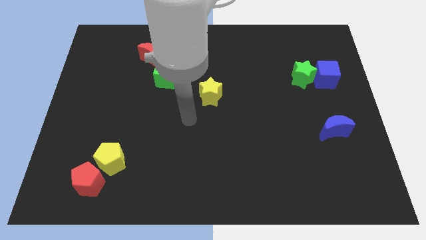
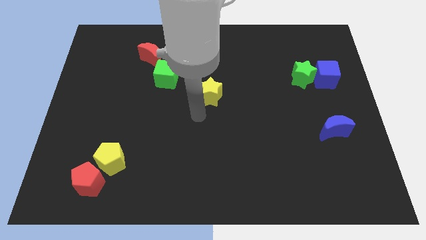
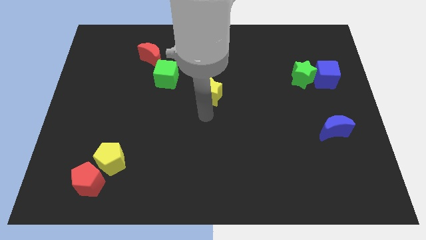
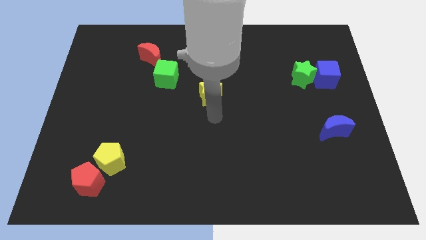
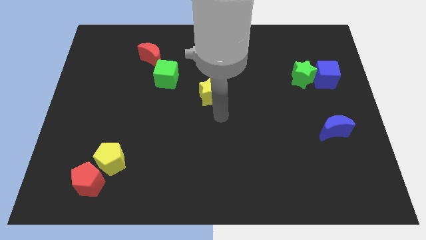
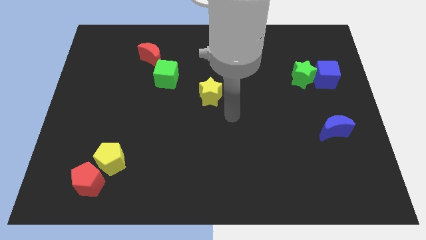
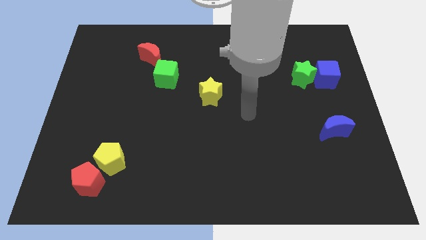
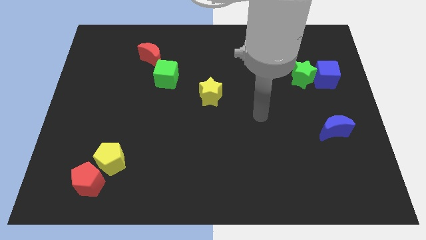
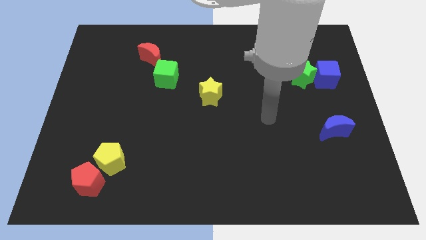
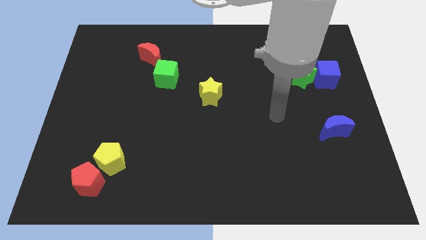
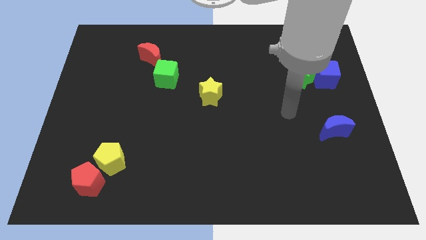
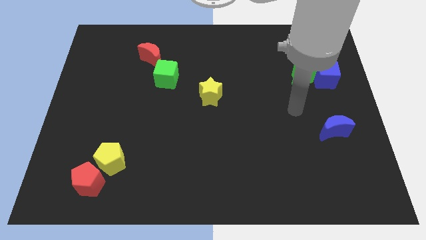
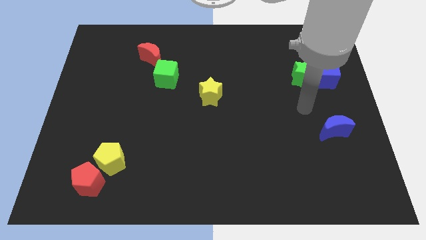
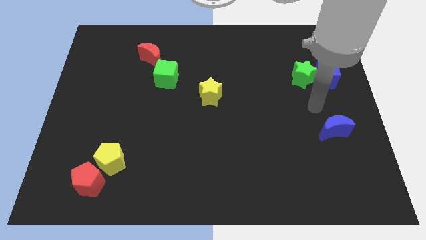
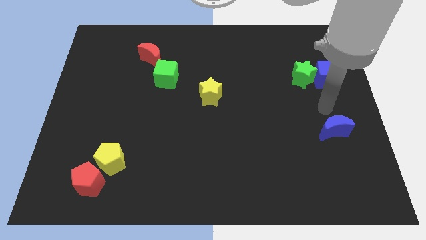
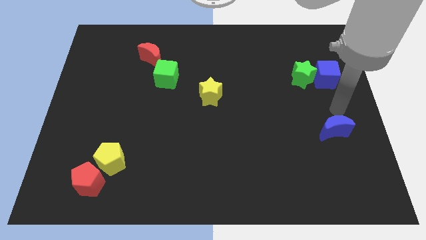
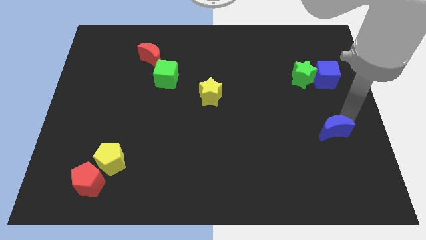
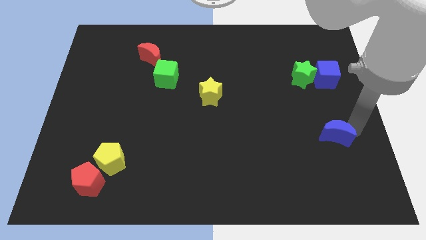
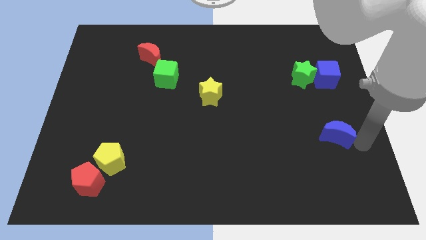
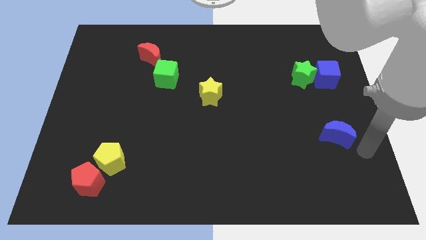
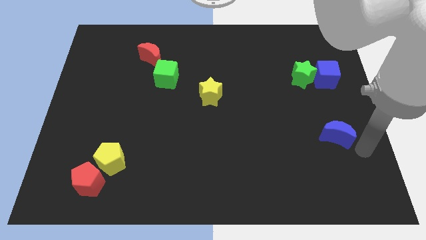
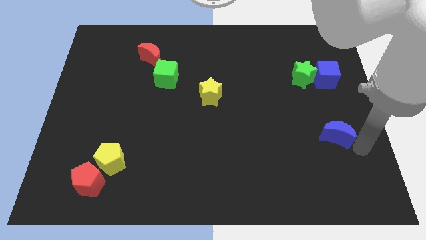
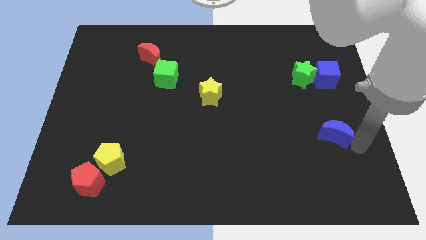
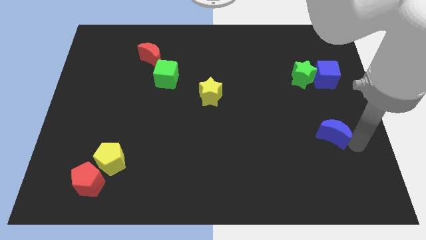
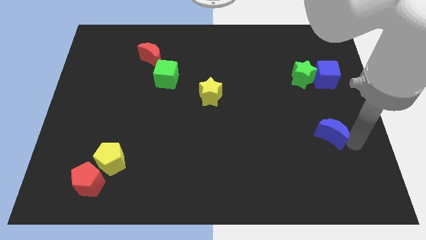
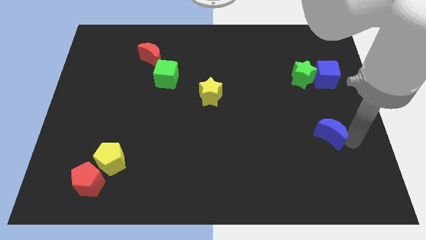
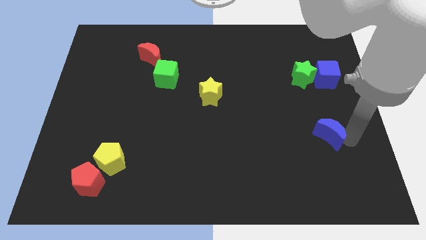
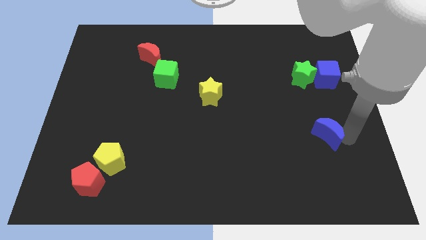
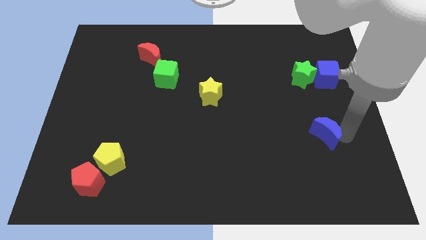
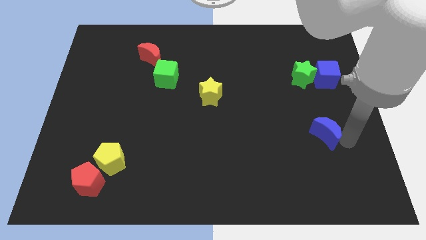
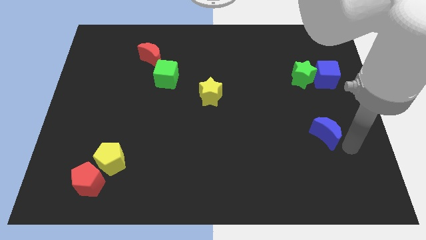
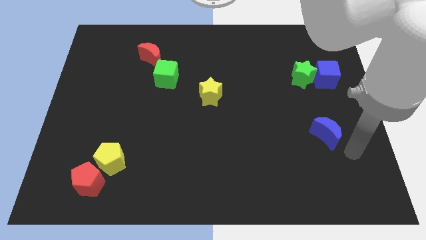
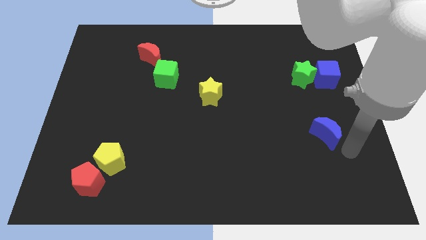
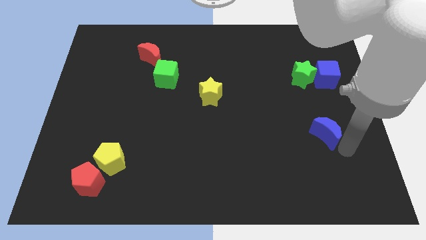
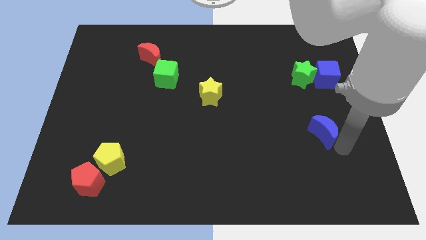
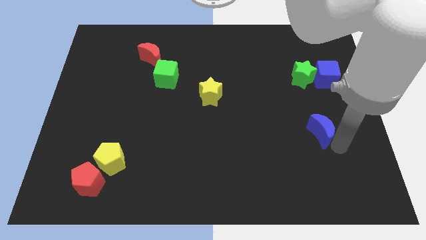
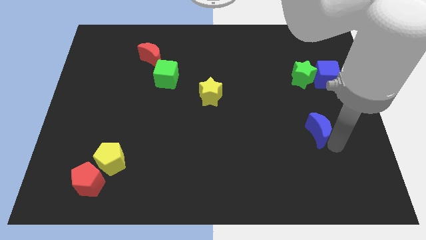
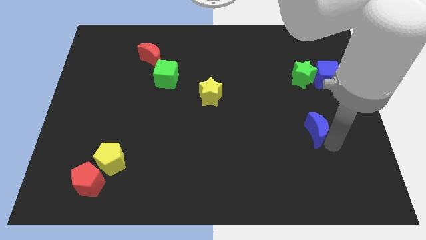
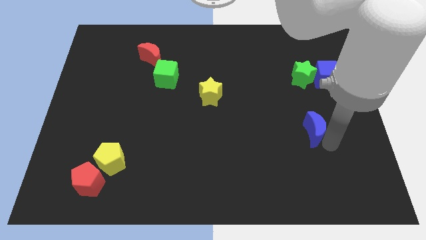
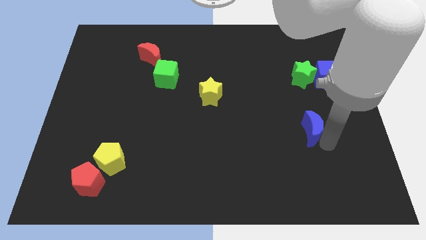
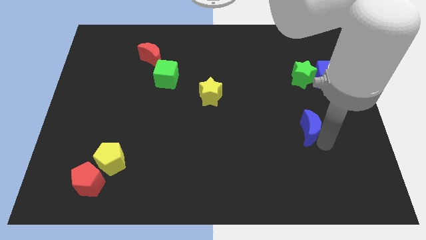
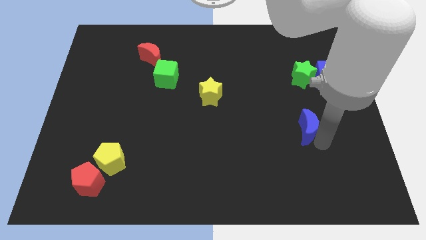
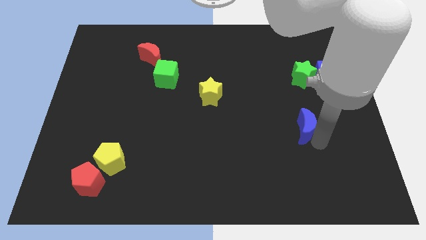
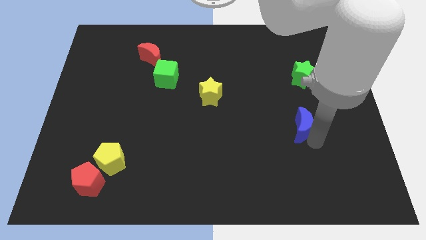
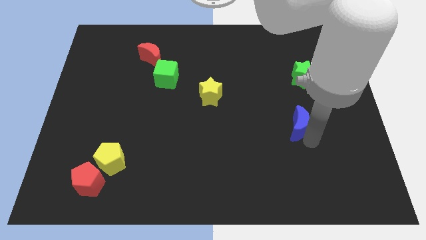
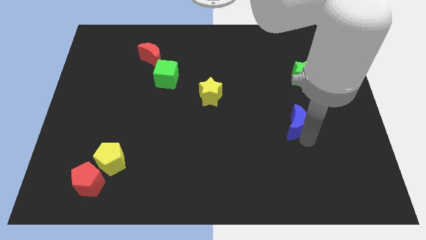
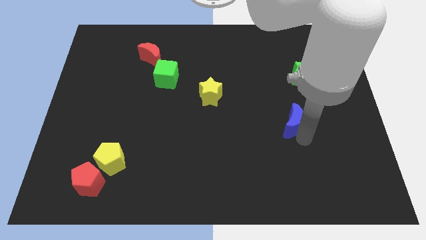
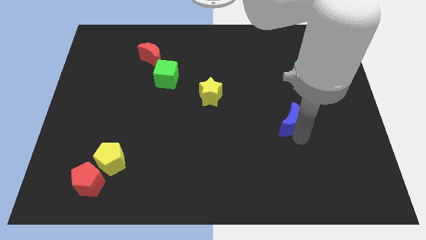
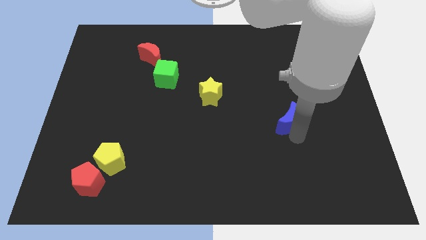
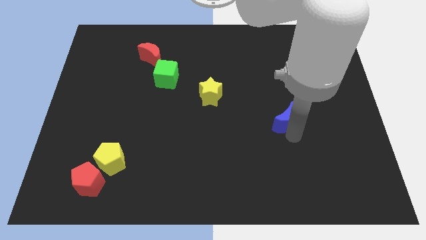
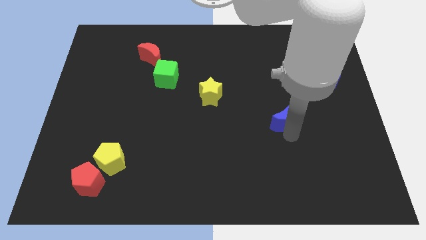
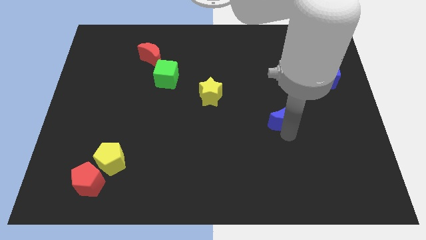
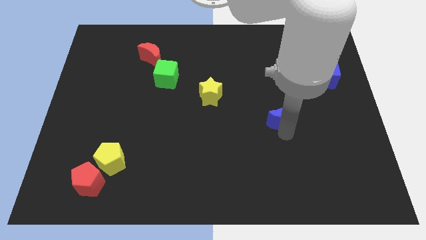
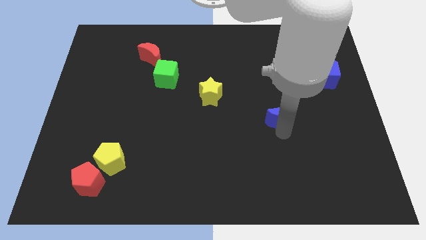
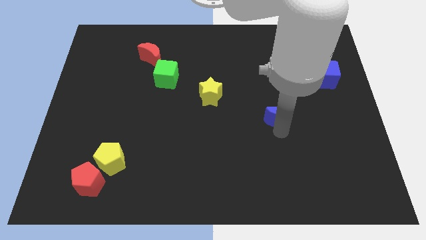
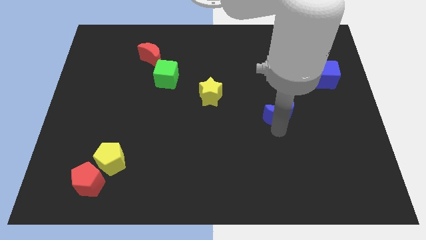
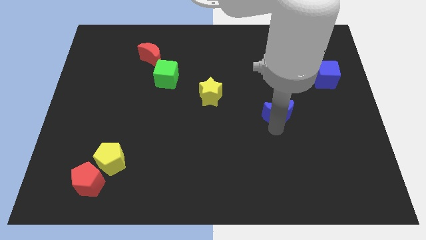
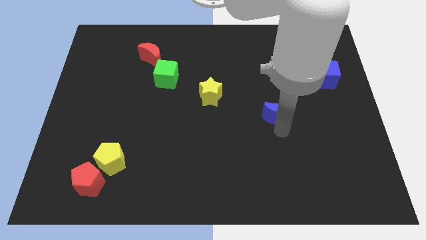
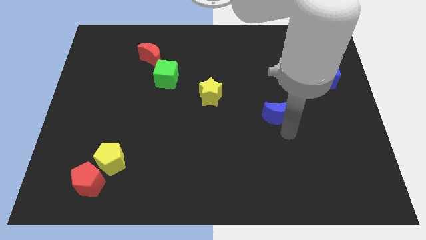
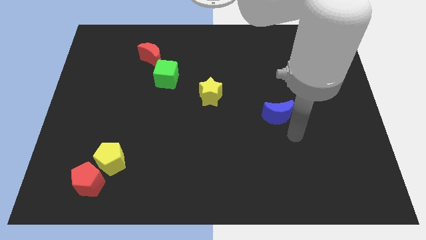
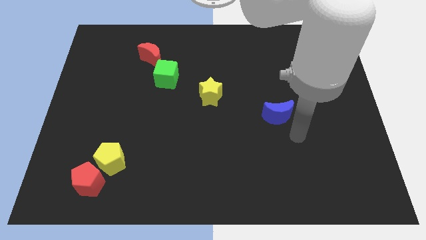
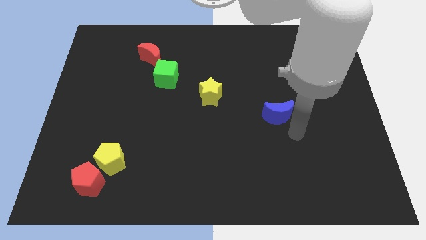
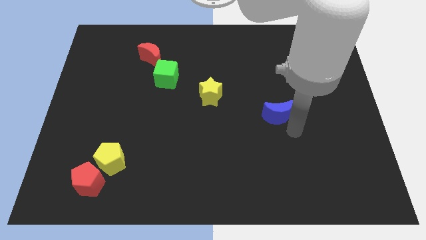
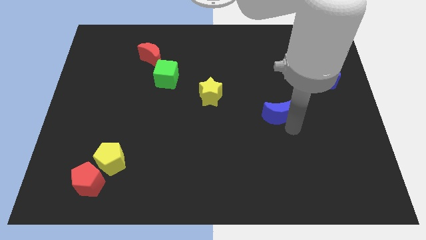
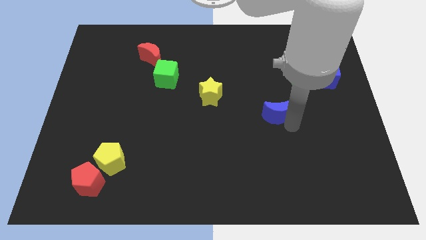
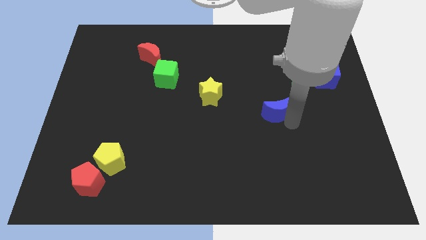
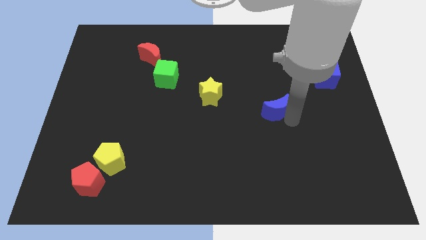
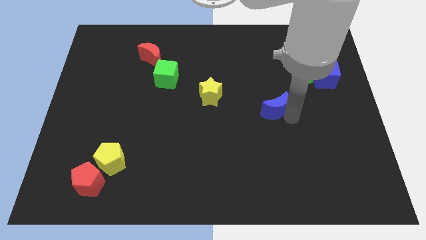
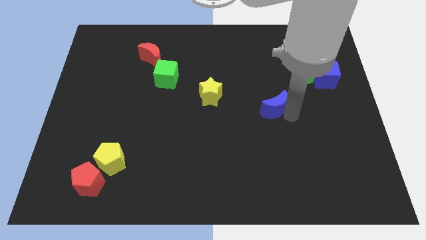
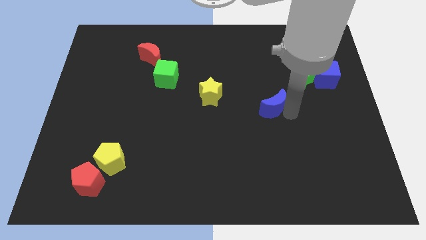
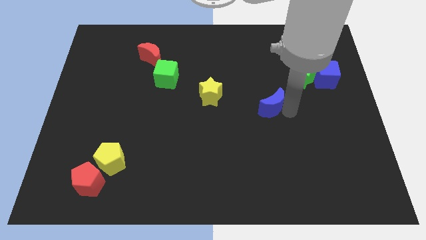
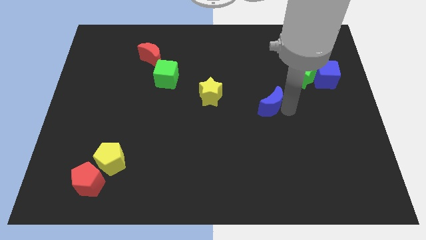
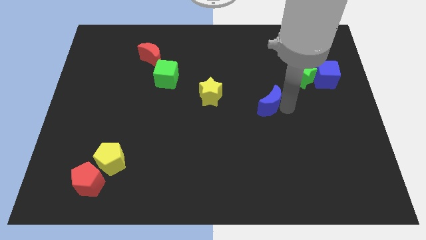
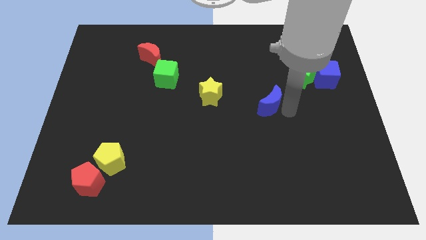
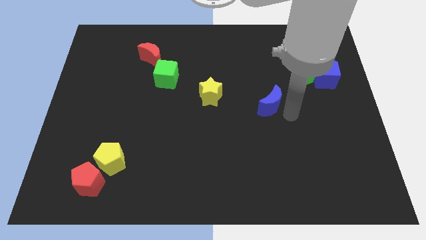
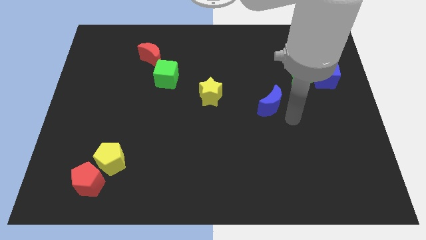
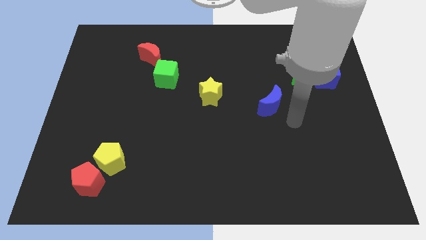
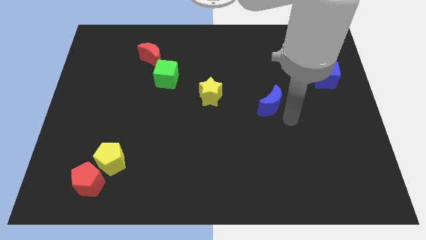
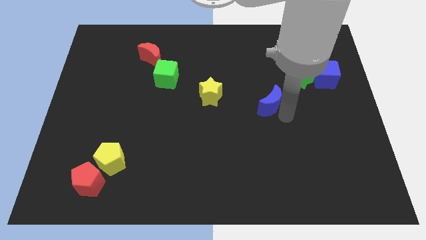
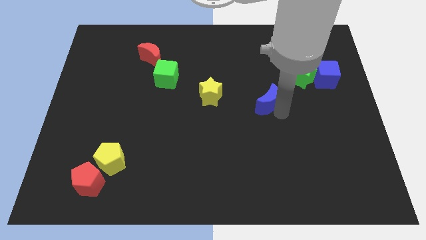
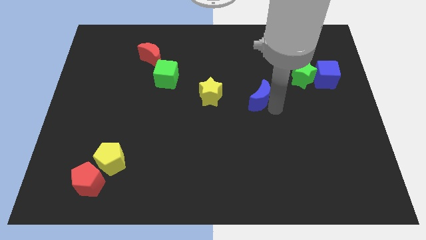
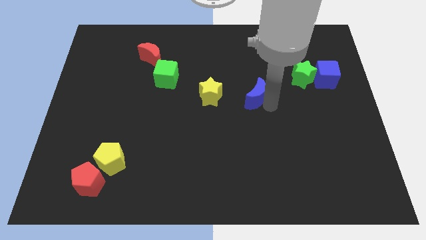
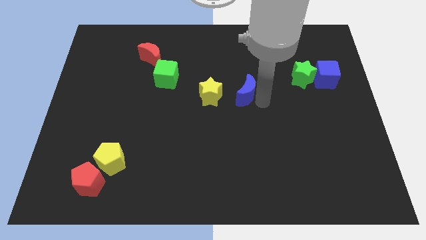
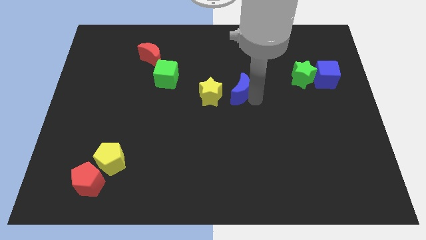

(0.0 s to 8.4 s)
push the blue moon to the top right of the yellow star
